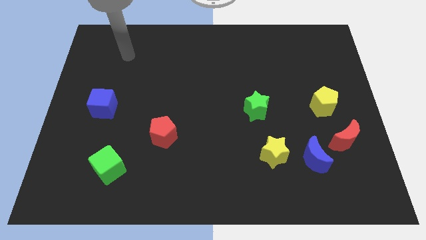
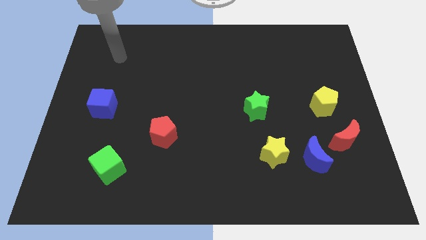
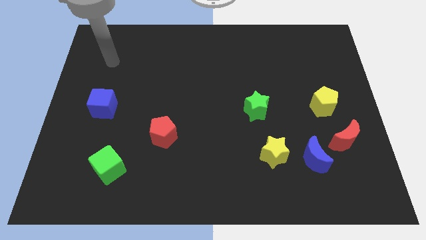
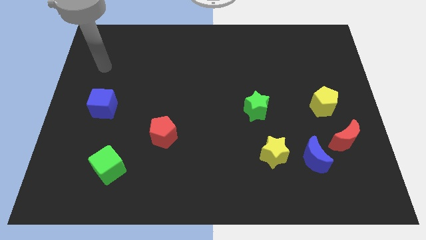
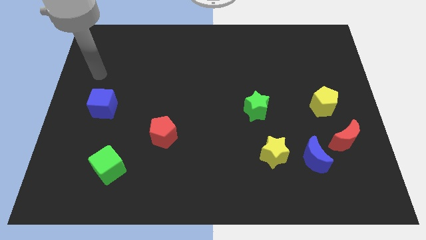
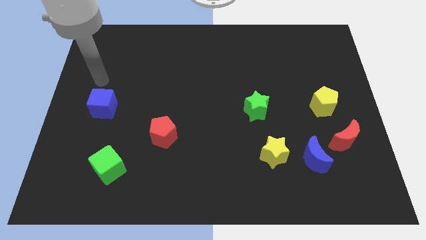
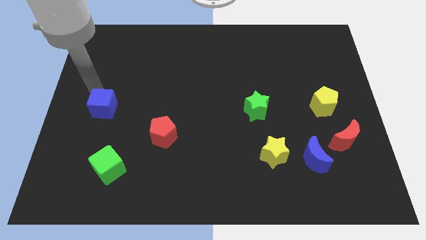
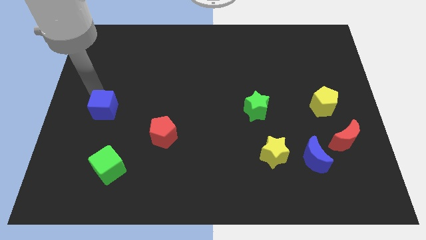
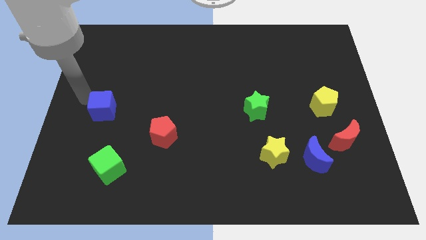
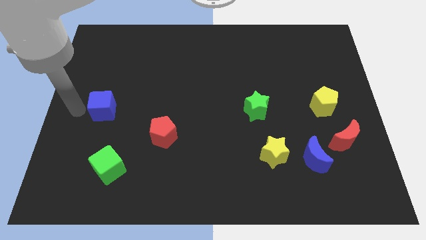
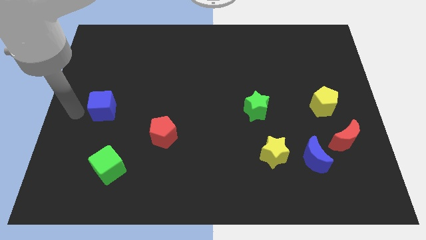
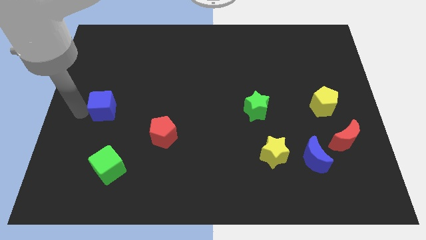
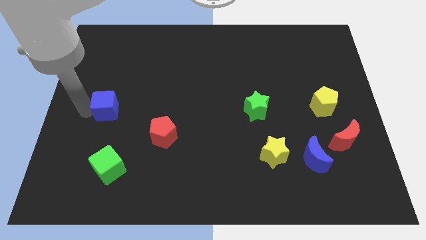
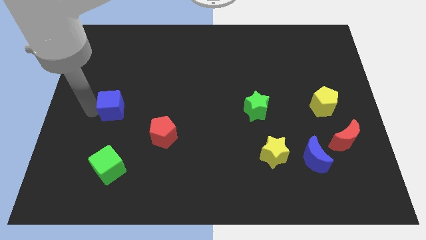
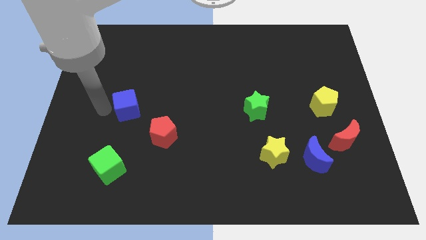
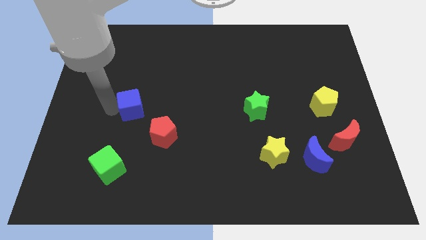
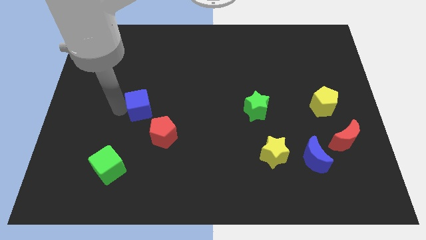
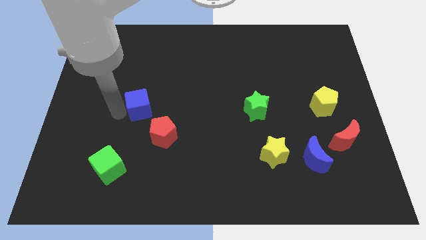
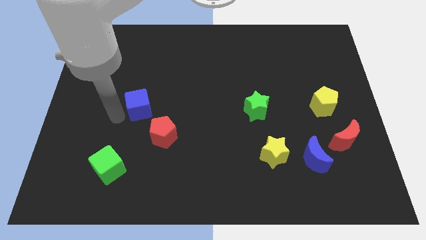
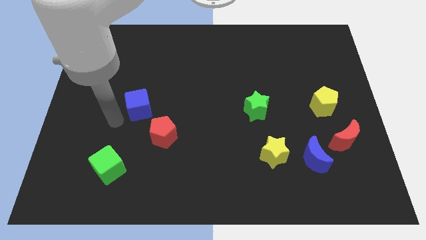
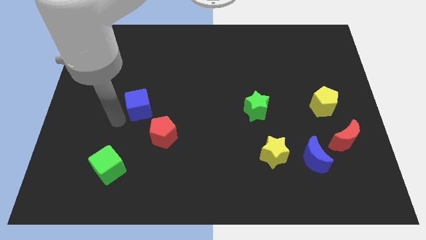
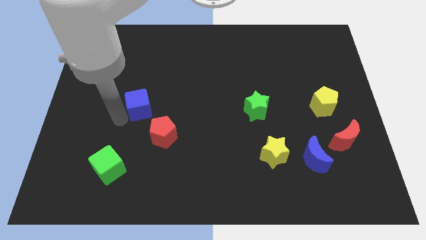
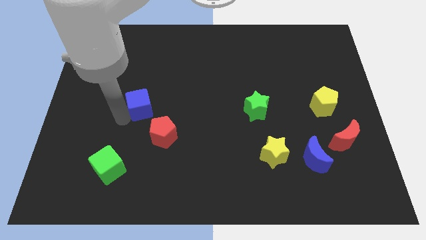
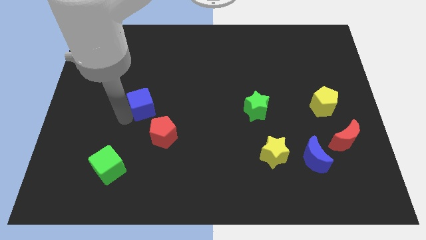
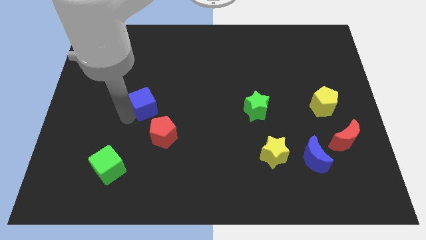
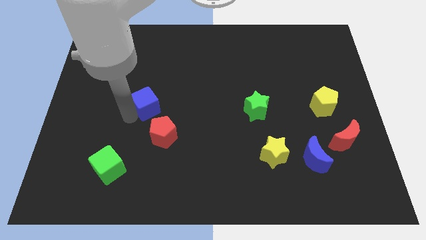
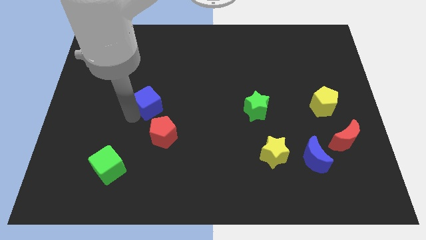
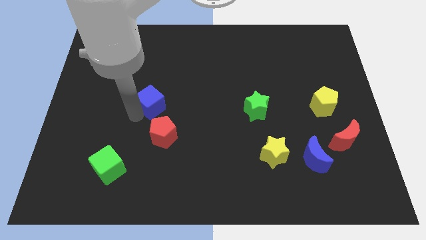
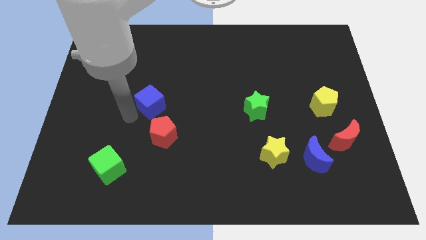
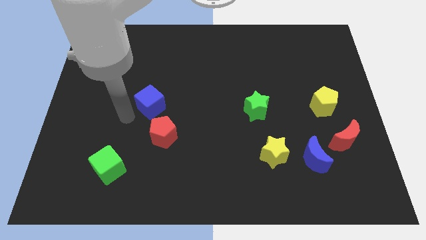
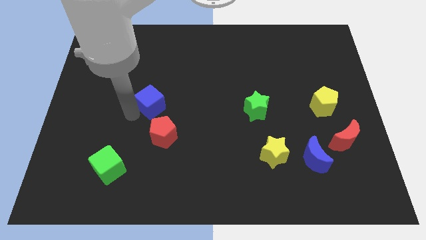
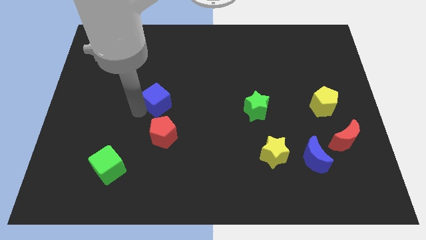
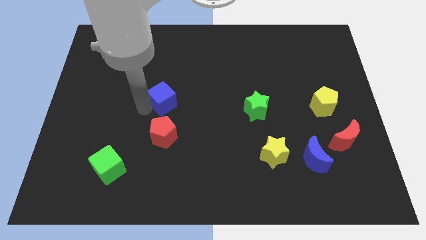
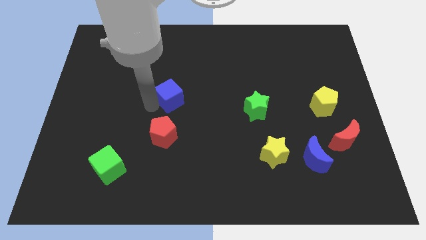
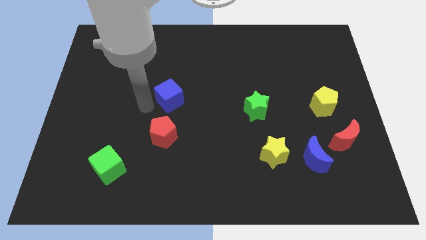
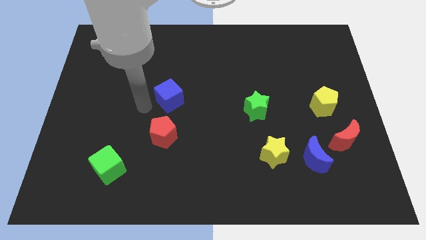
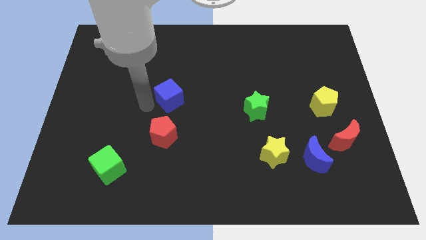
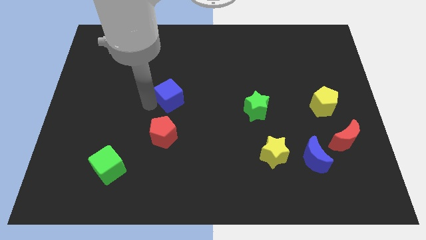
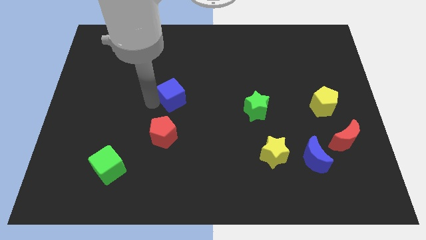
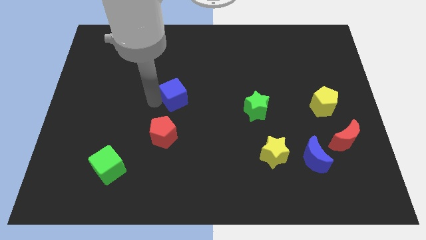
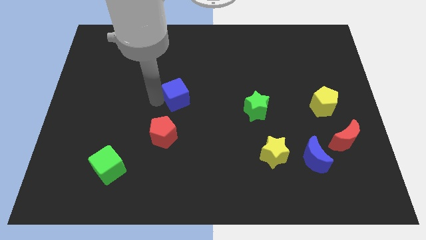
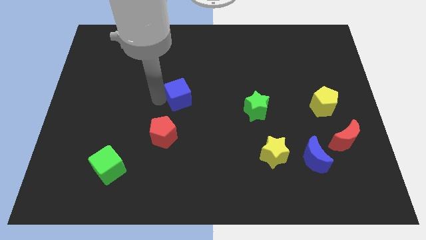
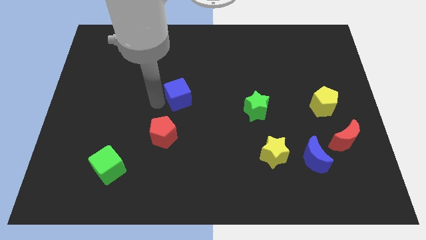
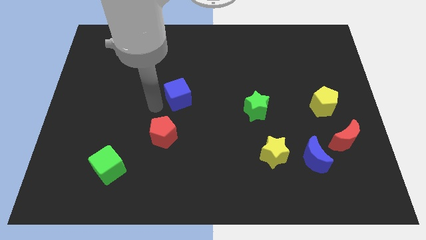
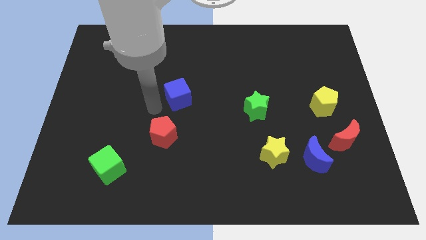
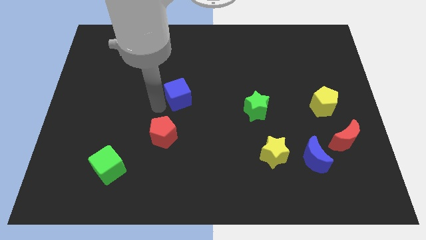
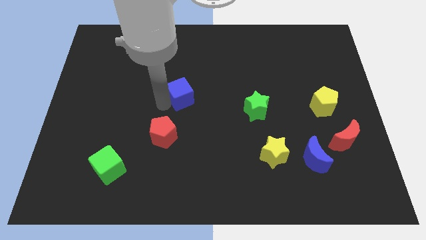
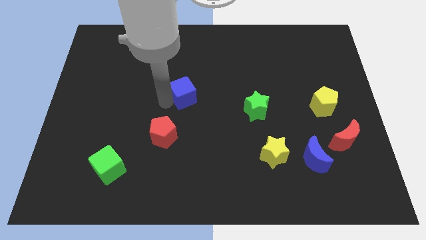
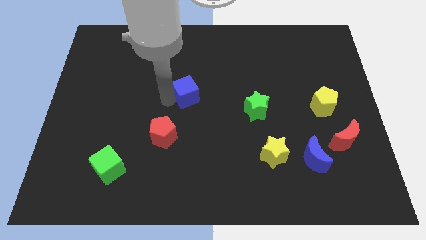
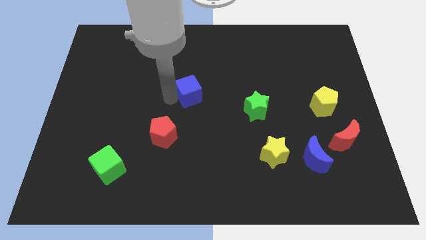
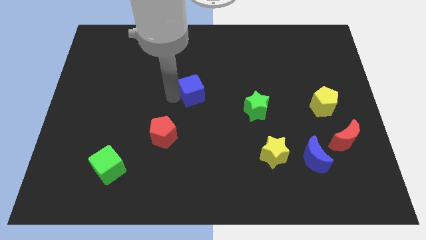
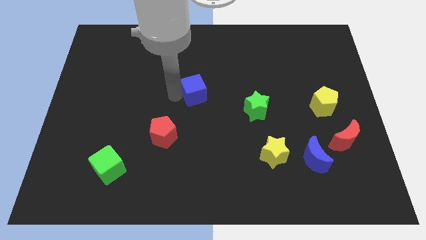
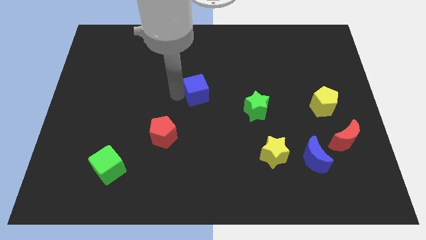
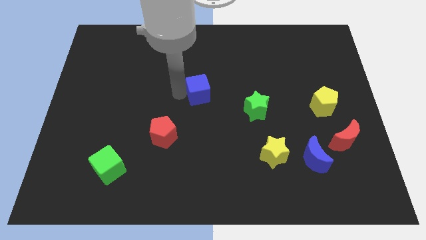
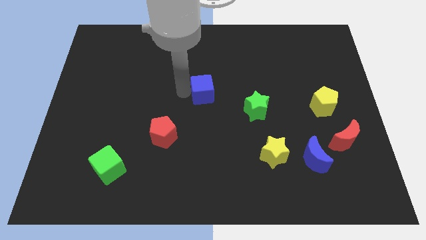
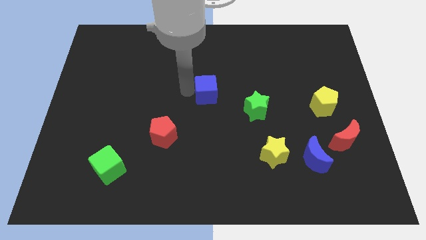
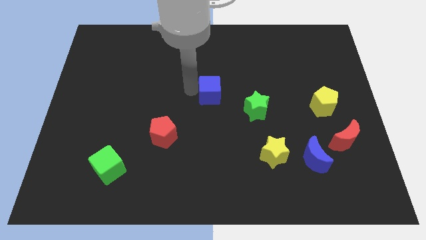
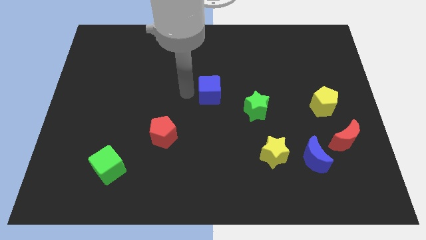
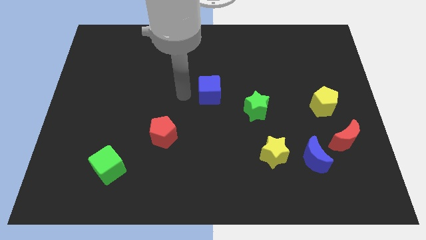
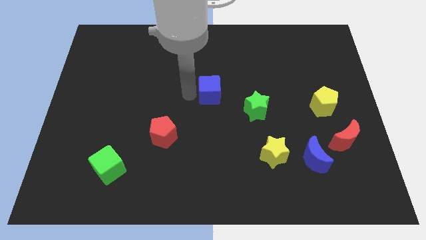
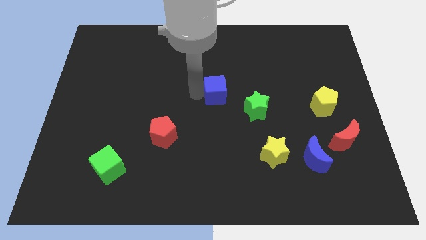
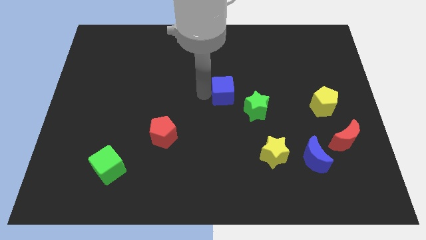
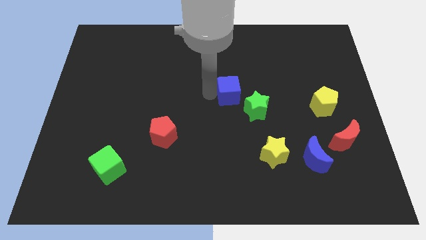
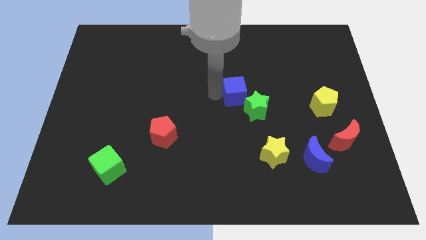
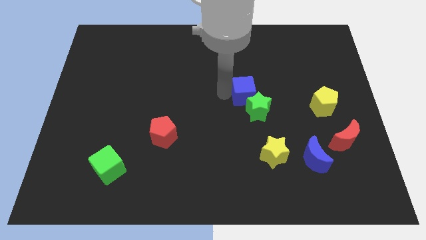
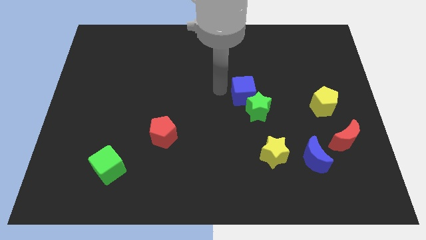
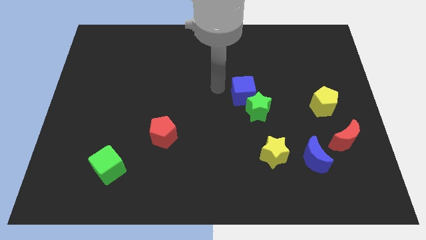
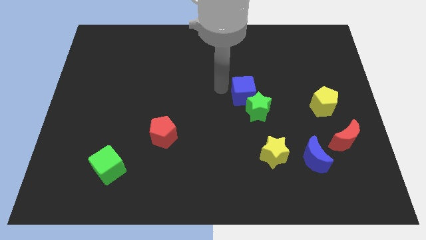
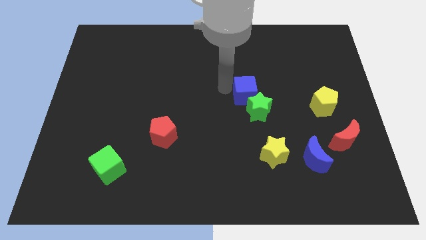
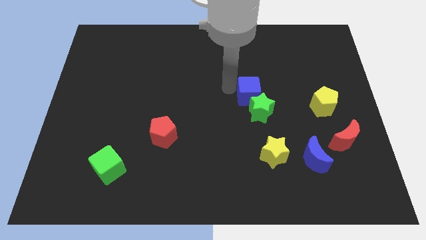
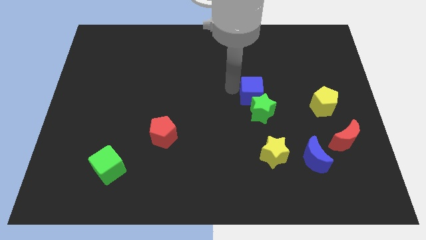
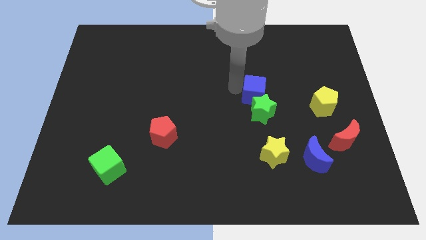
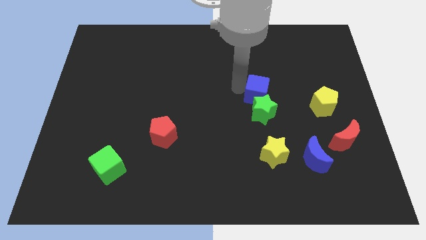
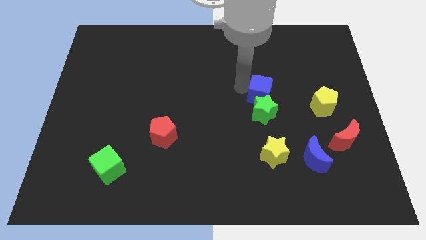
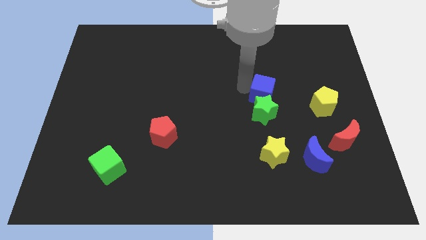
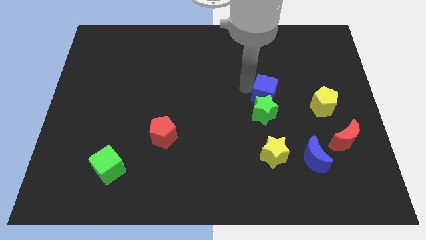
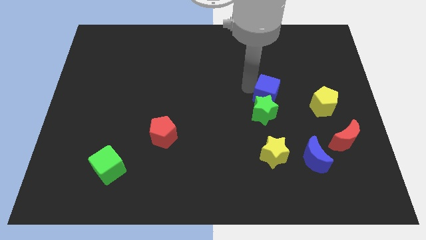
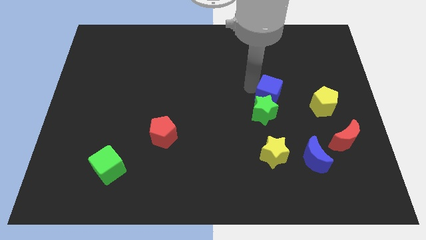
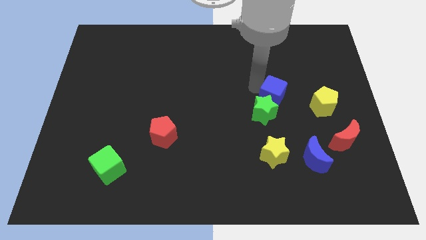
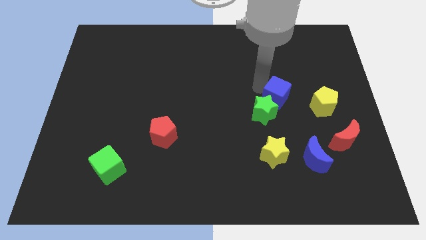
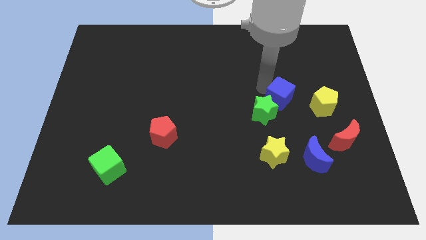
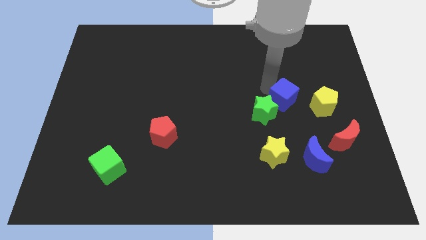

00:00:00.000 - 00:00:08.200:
slide the blue cube right of the green star
